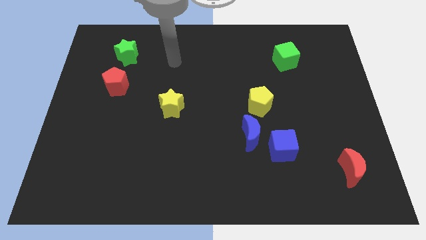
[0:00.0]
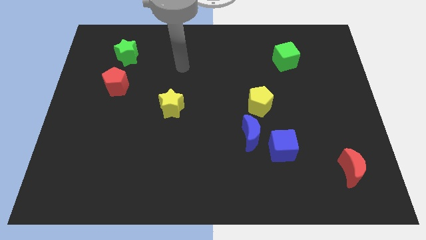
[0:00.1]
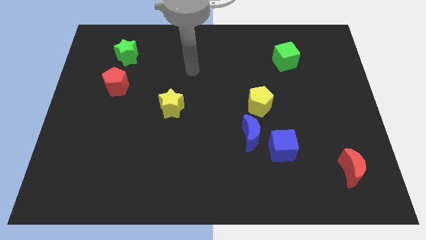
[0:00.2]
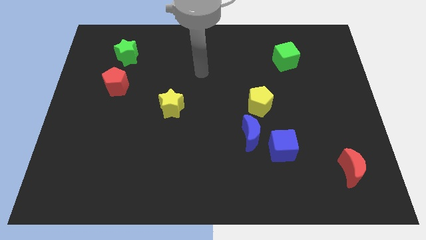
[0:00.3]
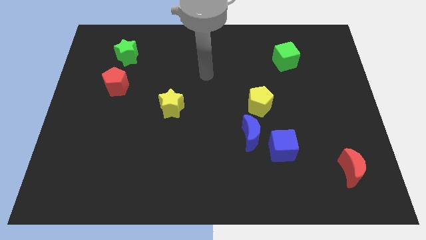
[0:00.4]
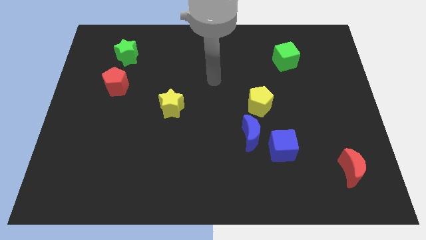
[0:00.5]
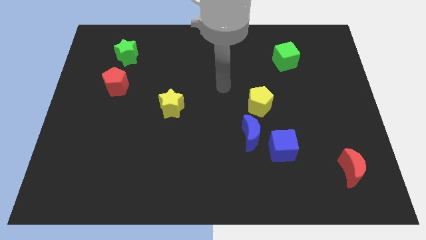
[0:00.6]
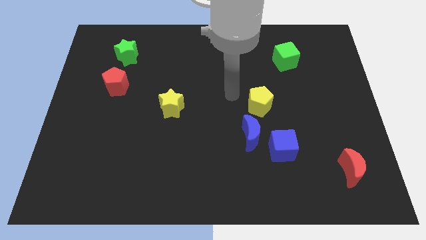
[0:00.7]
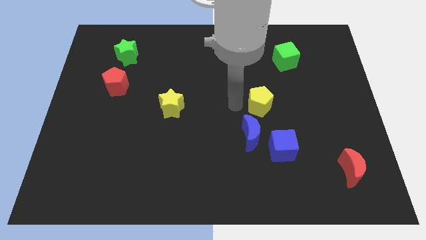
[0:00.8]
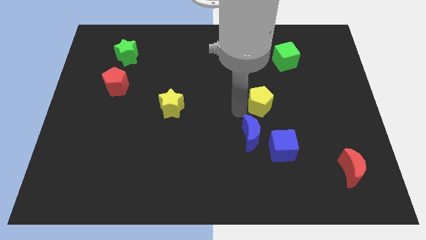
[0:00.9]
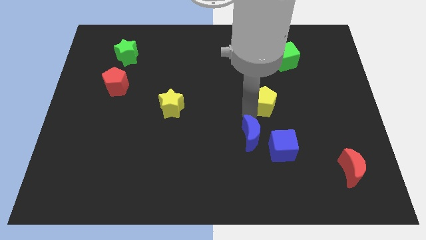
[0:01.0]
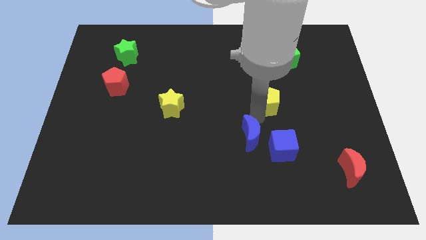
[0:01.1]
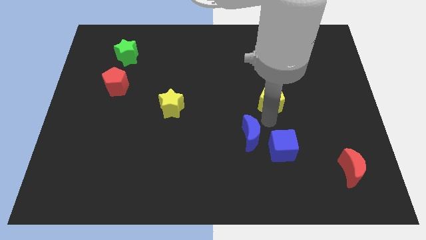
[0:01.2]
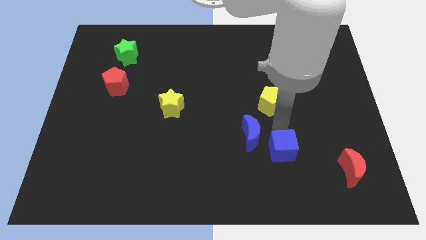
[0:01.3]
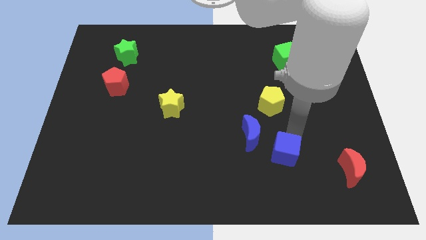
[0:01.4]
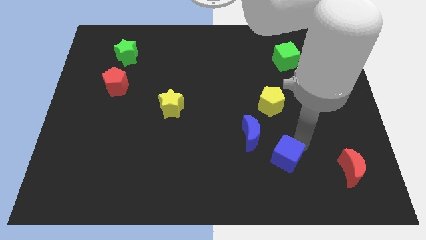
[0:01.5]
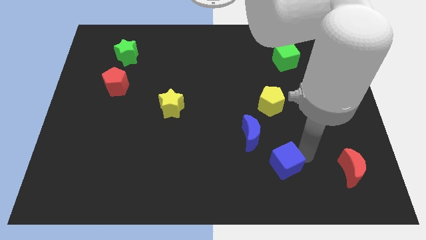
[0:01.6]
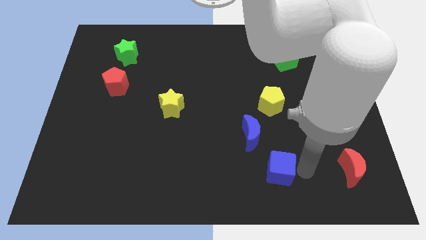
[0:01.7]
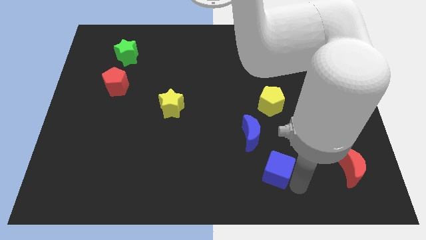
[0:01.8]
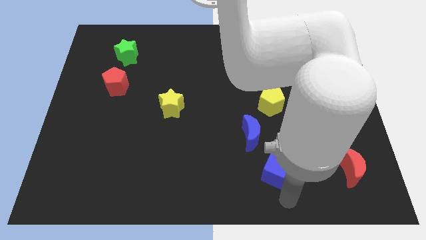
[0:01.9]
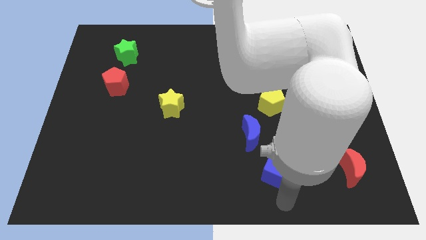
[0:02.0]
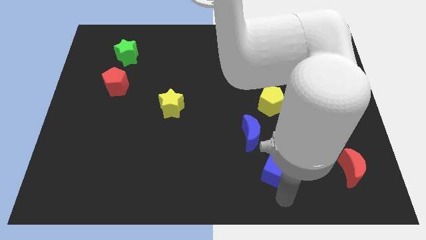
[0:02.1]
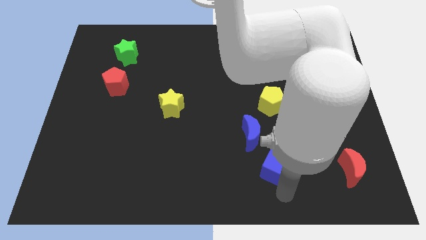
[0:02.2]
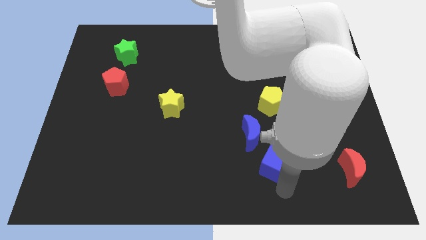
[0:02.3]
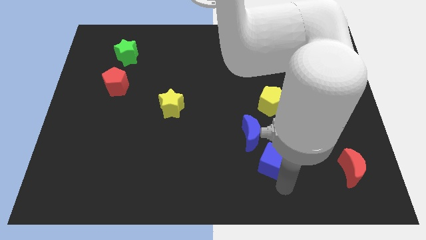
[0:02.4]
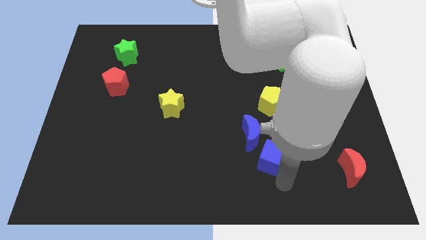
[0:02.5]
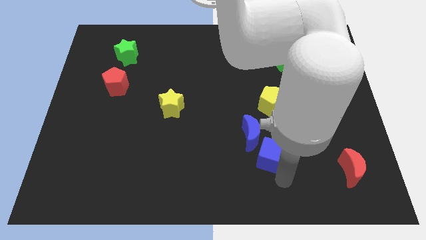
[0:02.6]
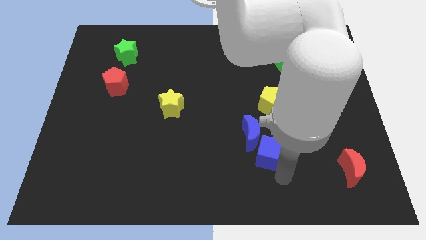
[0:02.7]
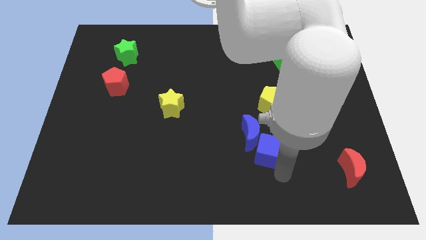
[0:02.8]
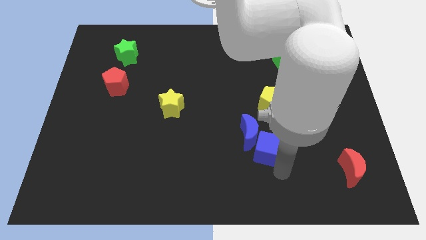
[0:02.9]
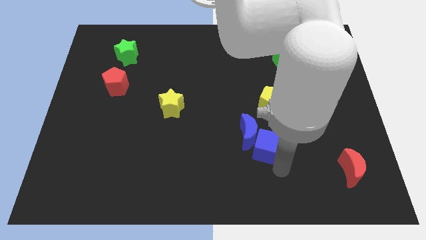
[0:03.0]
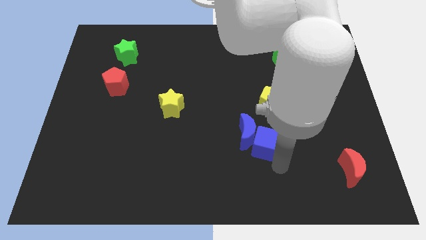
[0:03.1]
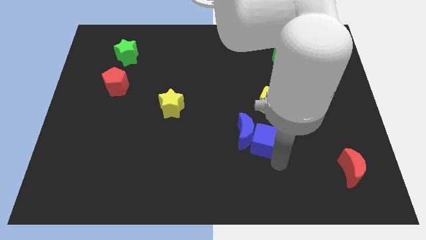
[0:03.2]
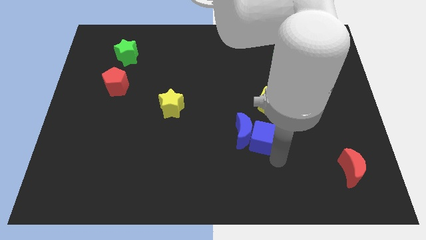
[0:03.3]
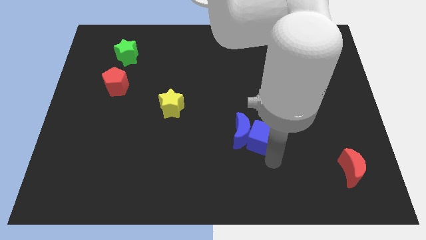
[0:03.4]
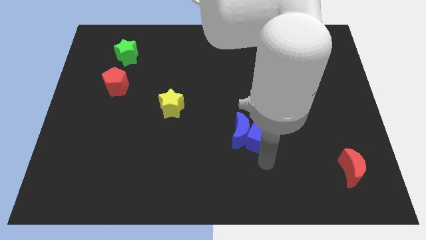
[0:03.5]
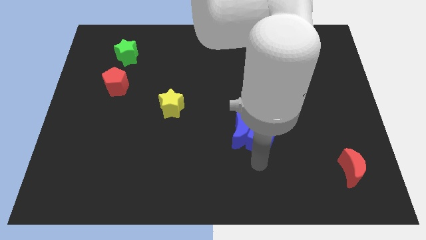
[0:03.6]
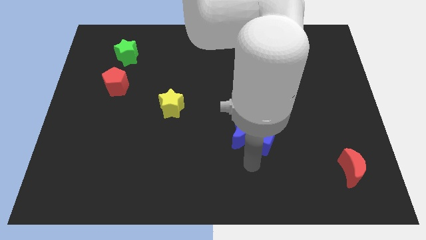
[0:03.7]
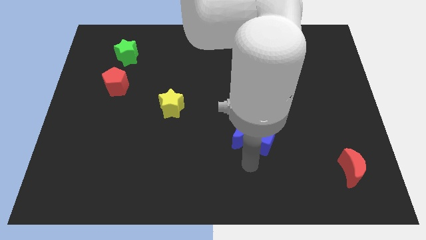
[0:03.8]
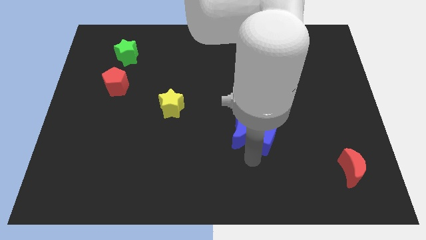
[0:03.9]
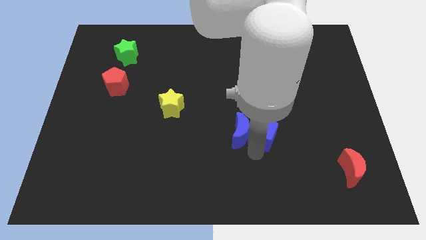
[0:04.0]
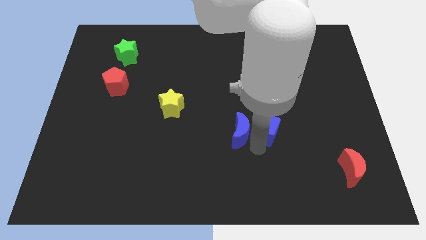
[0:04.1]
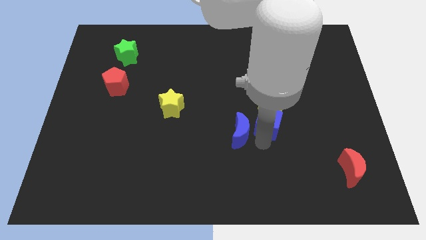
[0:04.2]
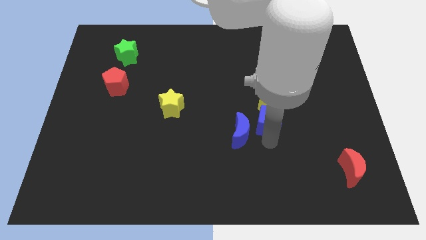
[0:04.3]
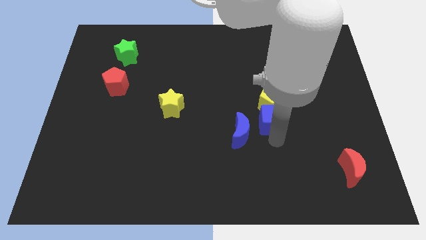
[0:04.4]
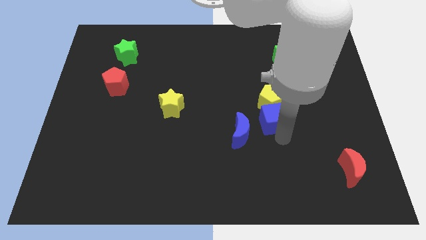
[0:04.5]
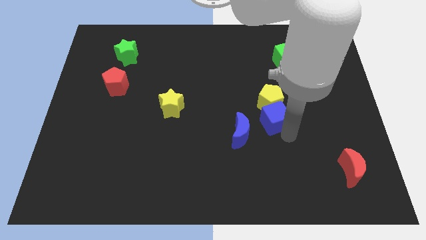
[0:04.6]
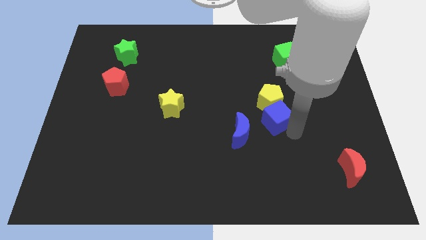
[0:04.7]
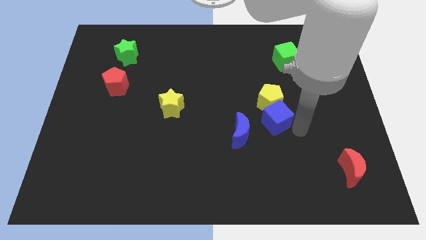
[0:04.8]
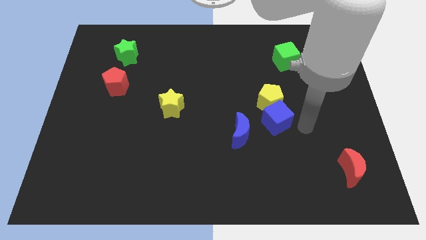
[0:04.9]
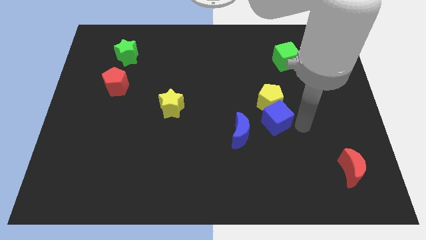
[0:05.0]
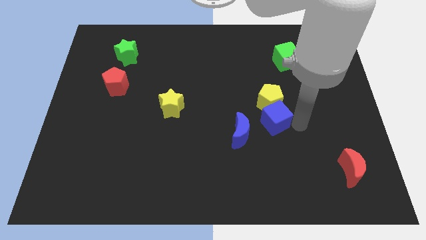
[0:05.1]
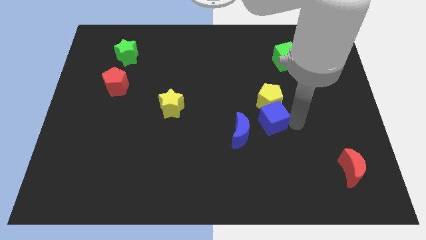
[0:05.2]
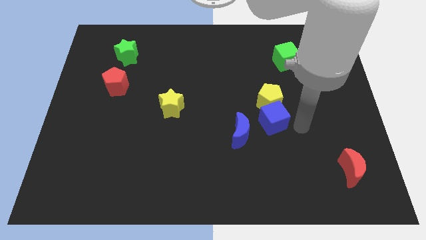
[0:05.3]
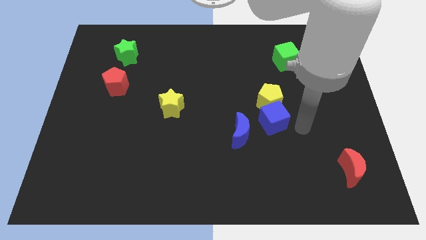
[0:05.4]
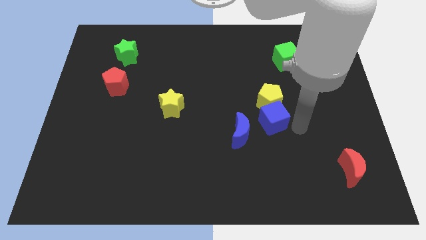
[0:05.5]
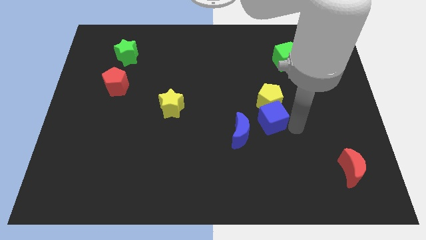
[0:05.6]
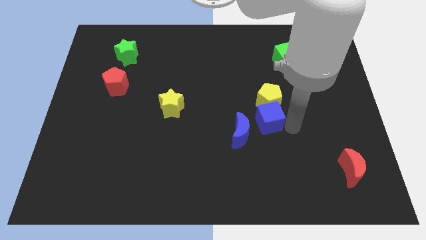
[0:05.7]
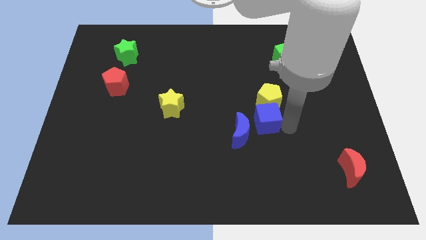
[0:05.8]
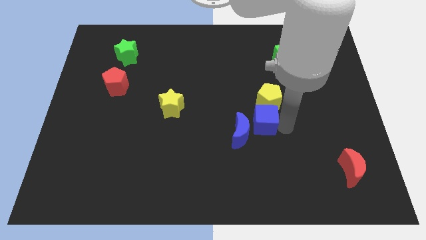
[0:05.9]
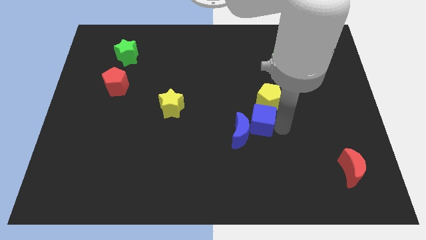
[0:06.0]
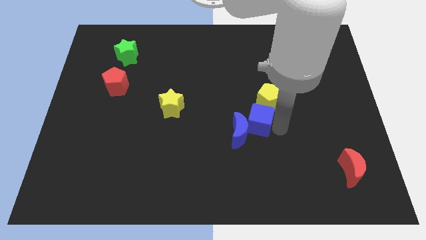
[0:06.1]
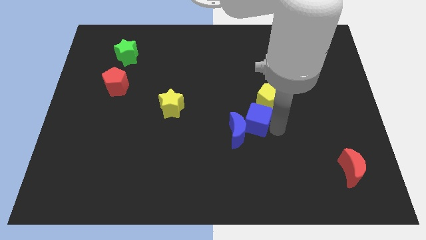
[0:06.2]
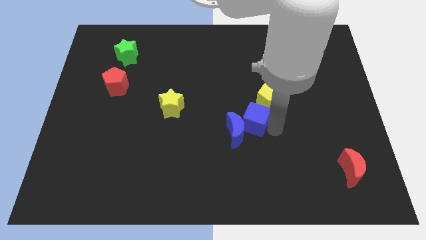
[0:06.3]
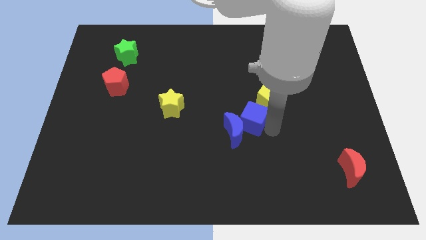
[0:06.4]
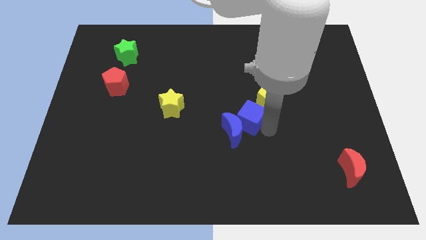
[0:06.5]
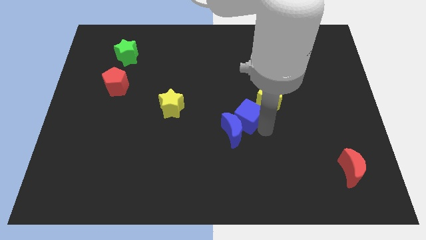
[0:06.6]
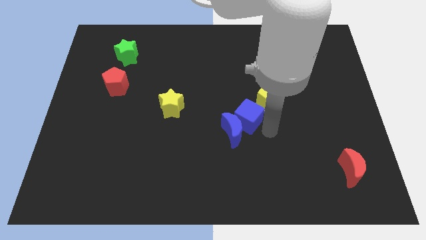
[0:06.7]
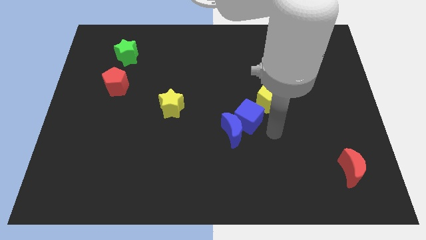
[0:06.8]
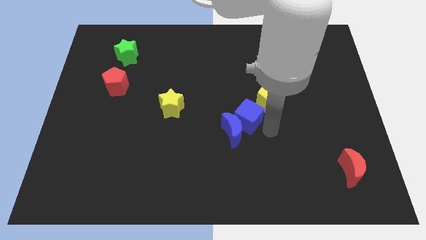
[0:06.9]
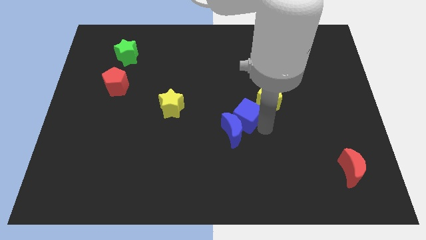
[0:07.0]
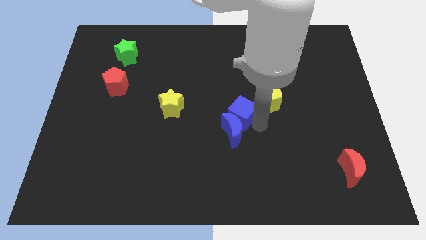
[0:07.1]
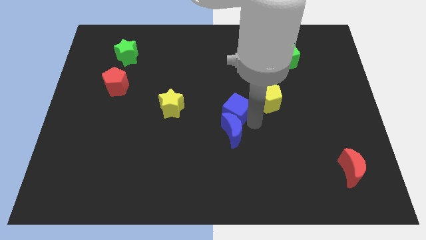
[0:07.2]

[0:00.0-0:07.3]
push the blue cube right of the yellow star
